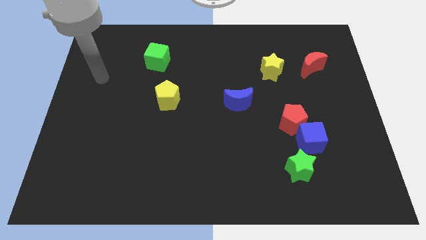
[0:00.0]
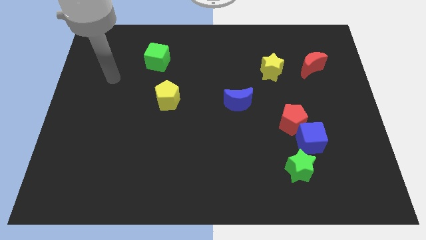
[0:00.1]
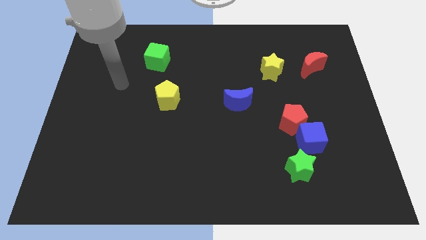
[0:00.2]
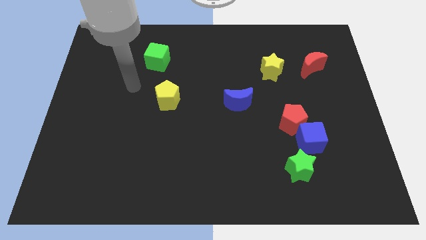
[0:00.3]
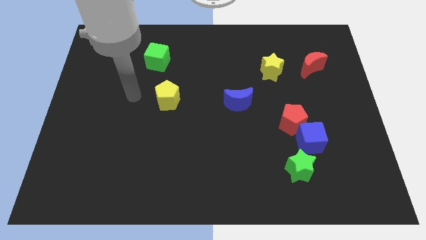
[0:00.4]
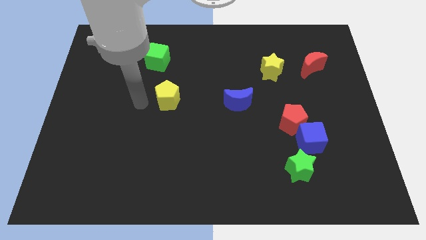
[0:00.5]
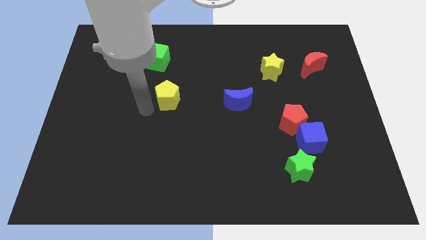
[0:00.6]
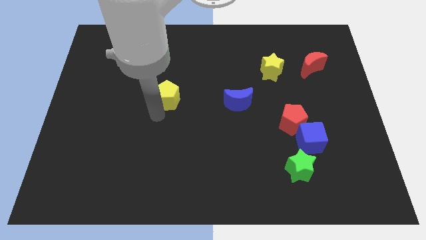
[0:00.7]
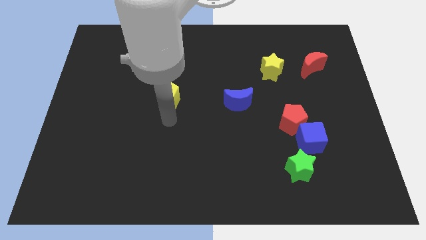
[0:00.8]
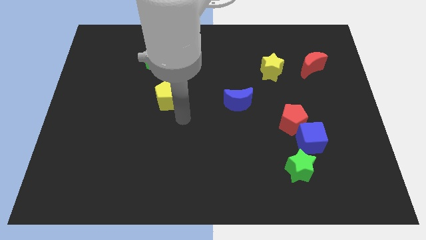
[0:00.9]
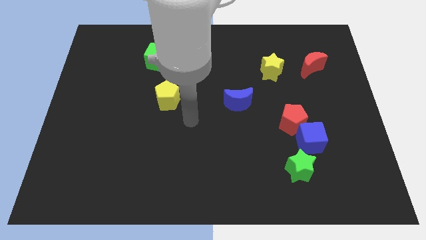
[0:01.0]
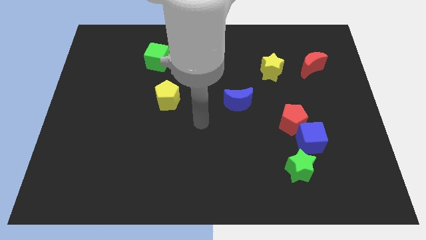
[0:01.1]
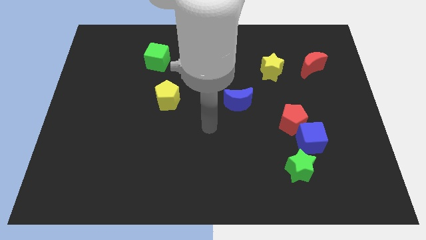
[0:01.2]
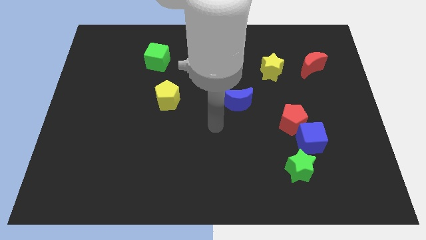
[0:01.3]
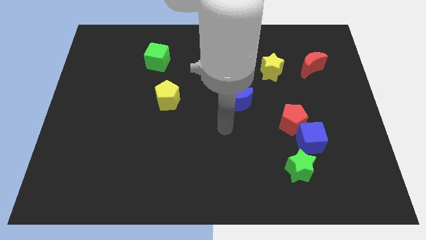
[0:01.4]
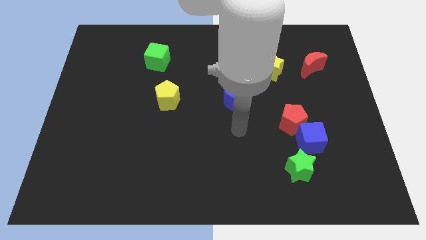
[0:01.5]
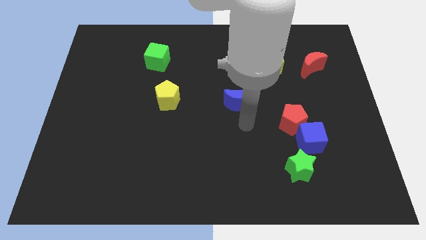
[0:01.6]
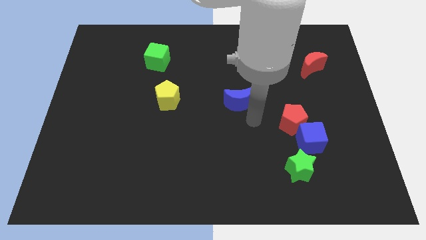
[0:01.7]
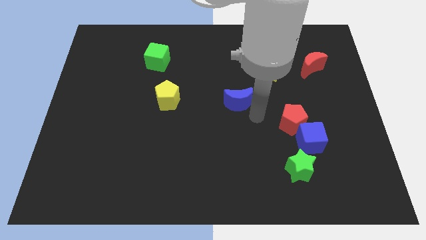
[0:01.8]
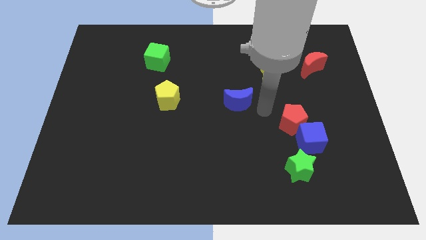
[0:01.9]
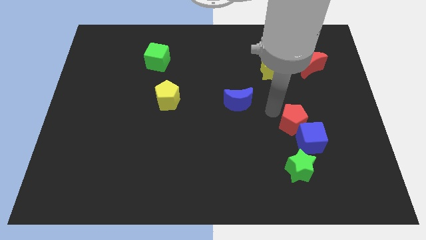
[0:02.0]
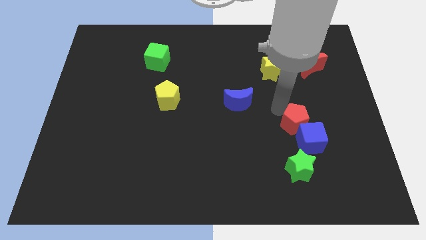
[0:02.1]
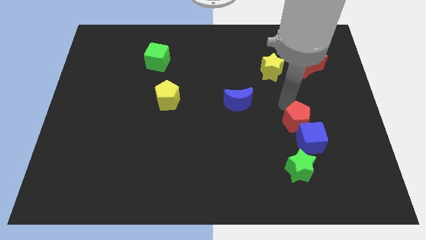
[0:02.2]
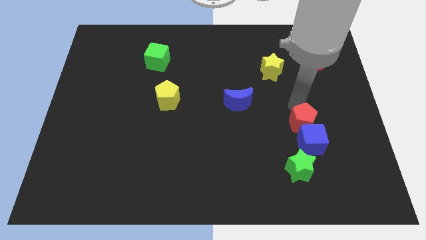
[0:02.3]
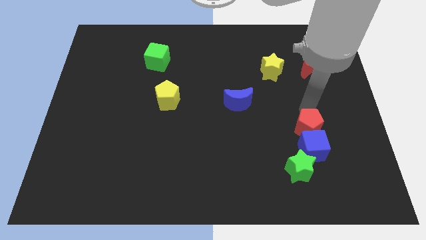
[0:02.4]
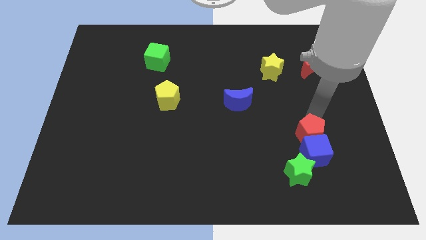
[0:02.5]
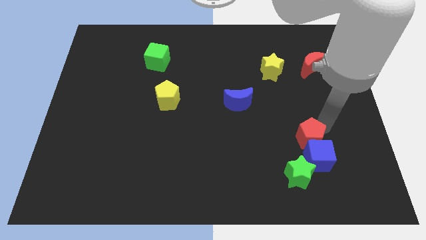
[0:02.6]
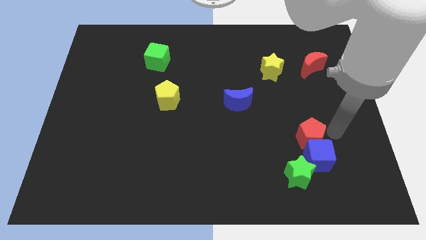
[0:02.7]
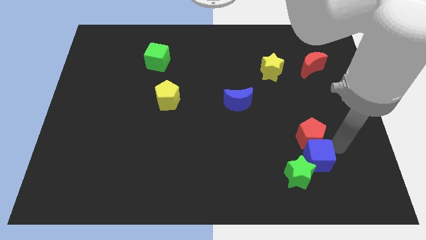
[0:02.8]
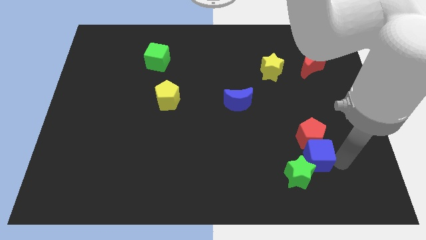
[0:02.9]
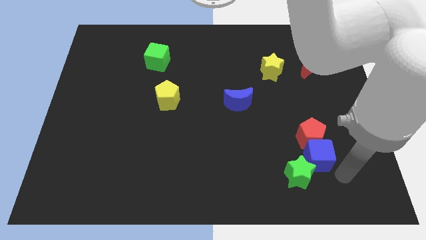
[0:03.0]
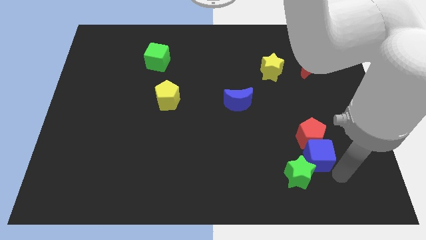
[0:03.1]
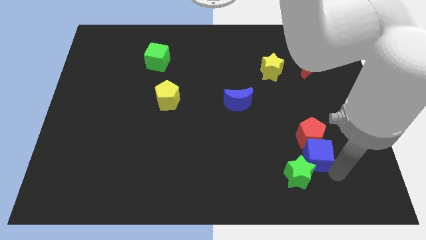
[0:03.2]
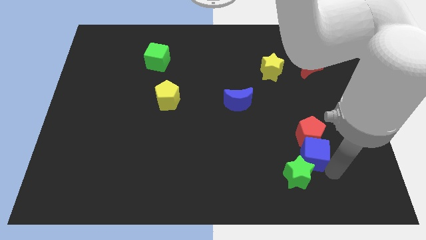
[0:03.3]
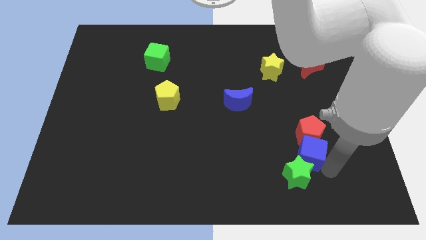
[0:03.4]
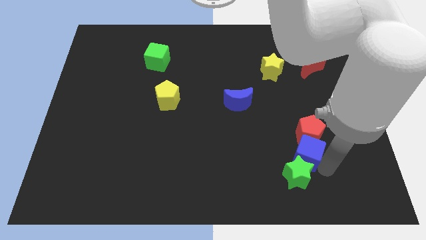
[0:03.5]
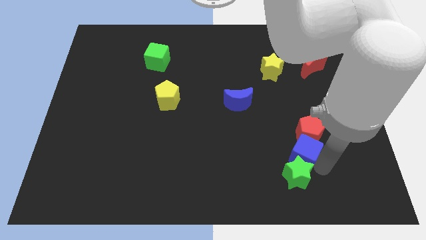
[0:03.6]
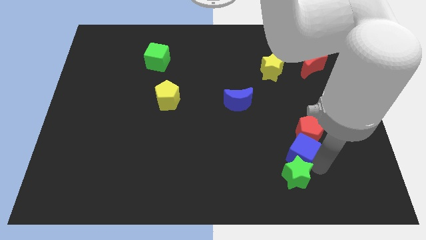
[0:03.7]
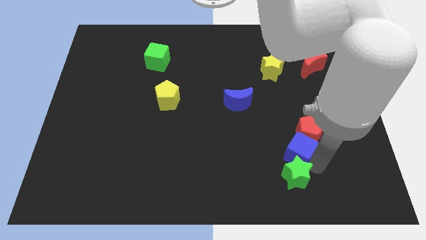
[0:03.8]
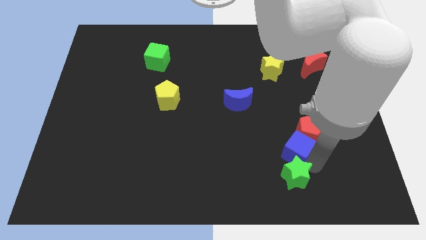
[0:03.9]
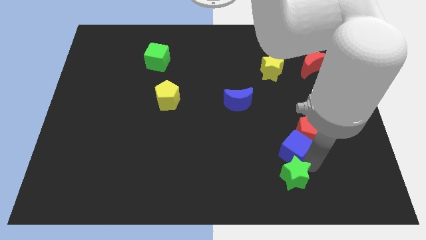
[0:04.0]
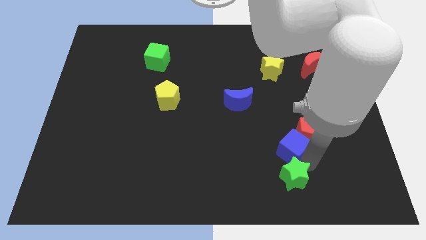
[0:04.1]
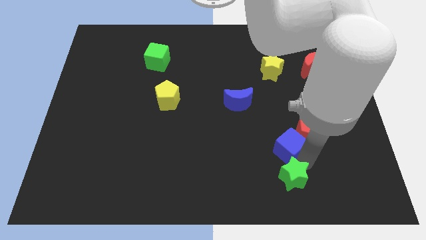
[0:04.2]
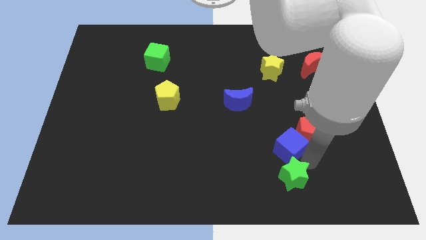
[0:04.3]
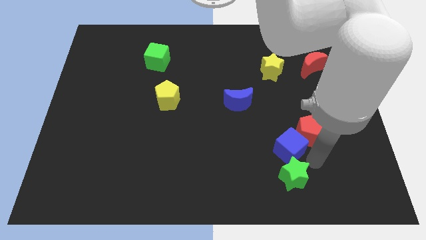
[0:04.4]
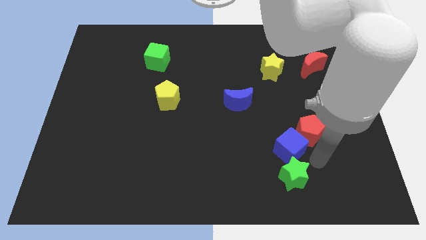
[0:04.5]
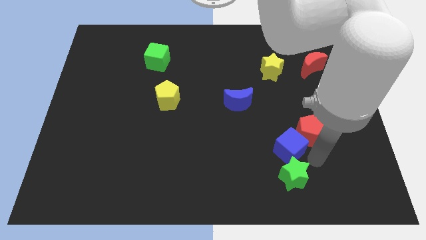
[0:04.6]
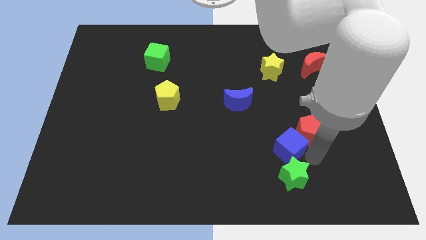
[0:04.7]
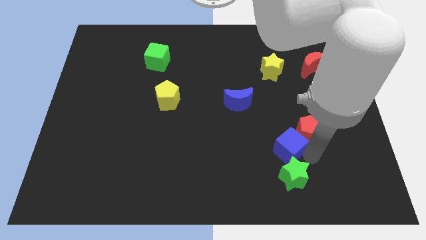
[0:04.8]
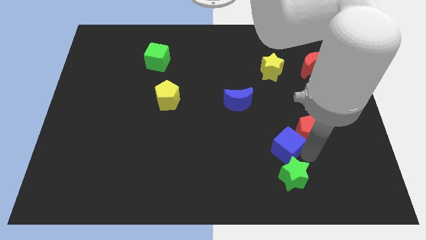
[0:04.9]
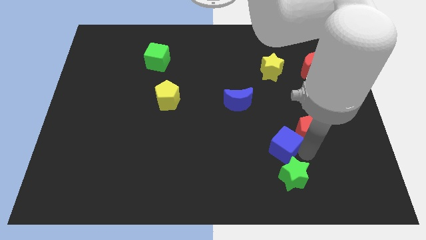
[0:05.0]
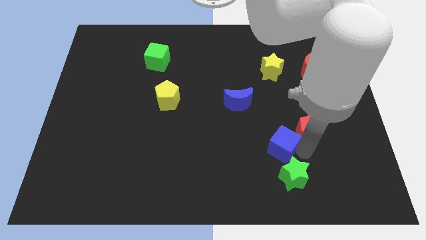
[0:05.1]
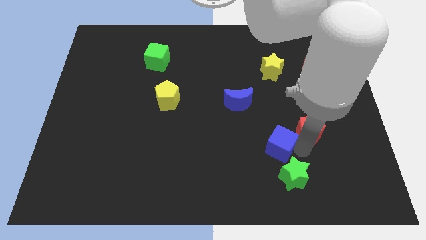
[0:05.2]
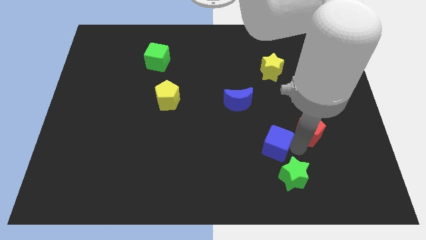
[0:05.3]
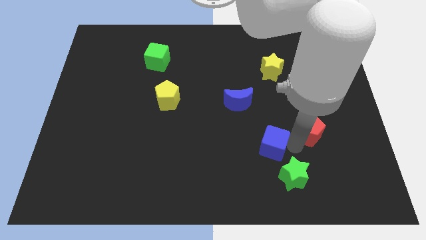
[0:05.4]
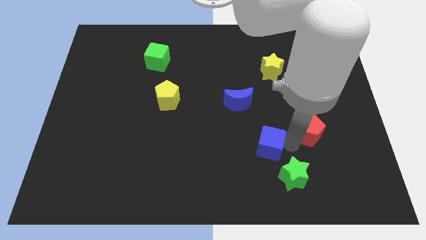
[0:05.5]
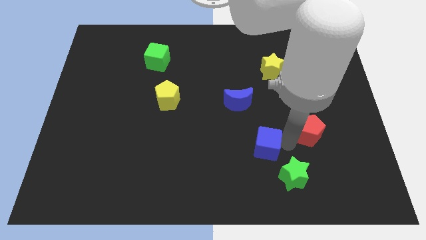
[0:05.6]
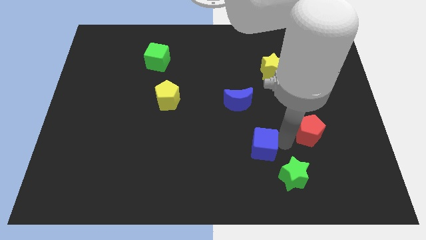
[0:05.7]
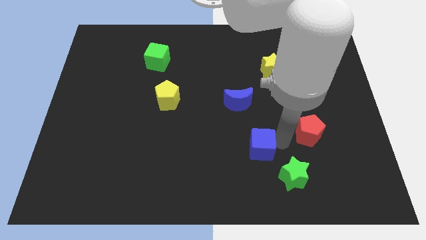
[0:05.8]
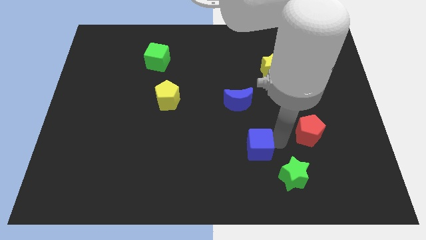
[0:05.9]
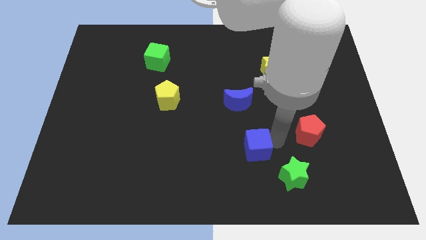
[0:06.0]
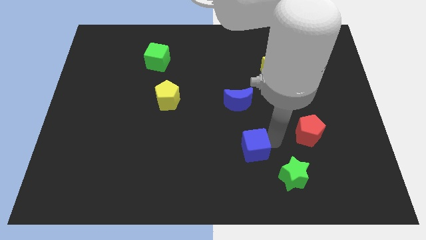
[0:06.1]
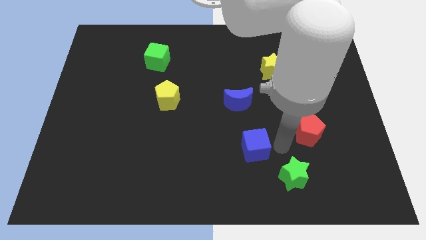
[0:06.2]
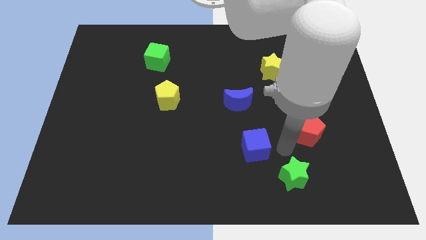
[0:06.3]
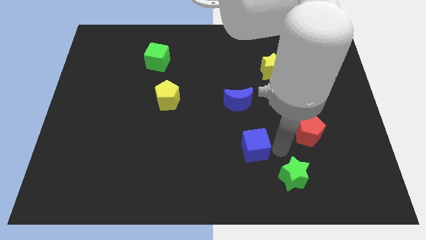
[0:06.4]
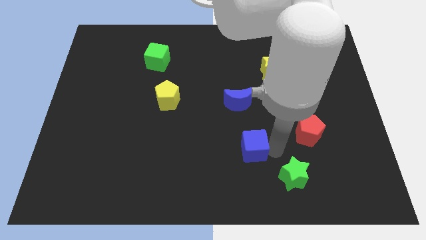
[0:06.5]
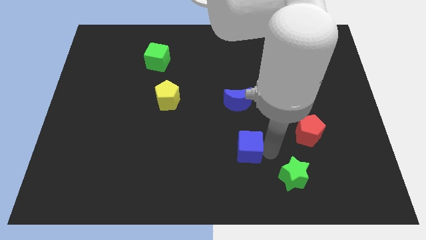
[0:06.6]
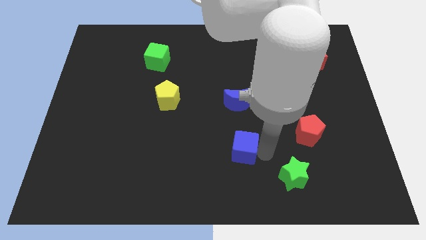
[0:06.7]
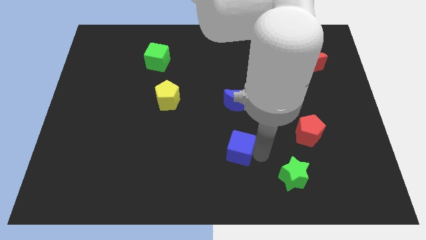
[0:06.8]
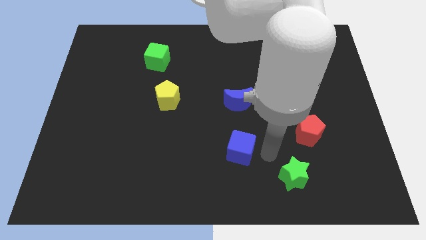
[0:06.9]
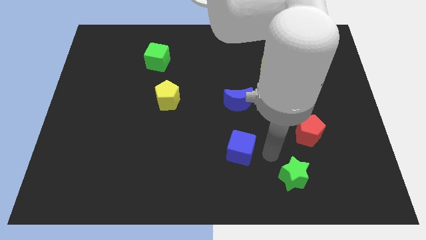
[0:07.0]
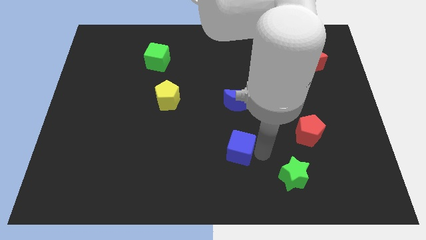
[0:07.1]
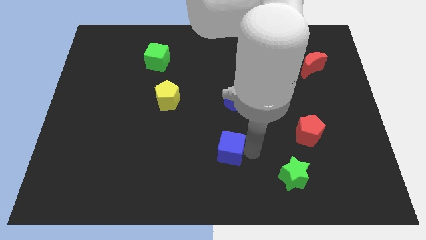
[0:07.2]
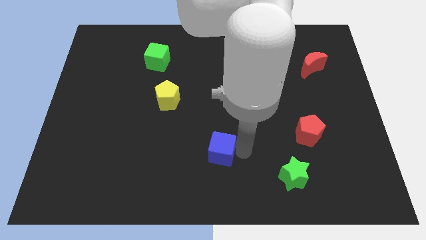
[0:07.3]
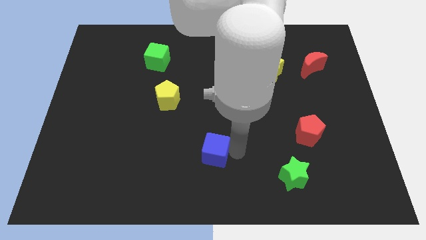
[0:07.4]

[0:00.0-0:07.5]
move the blue cube to the left

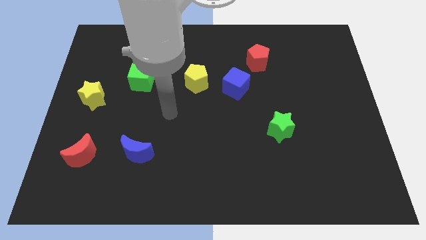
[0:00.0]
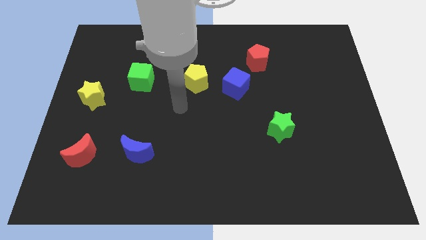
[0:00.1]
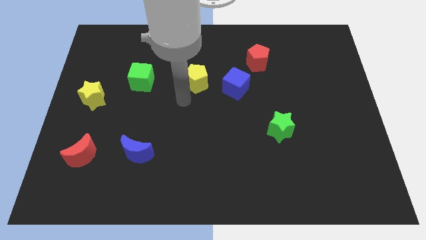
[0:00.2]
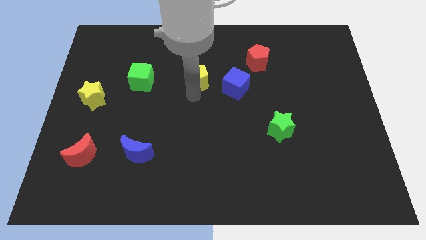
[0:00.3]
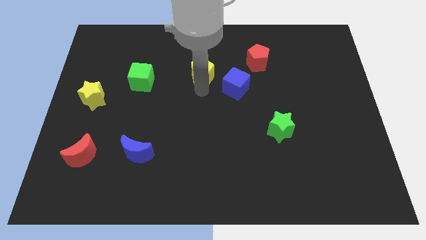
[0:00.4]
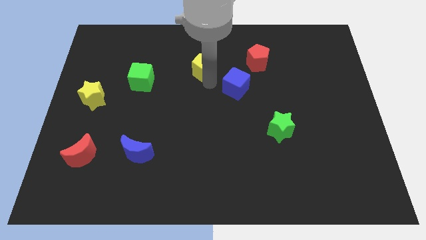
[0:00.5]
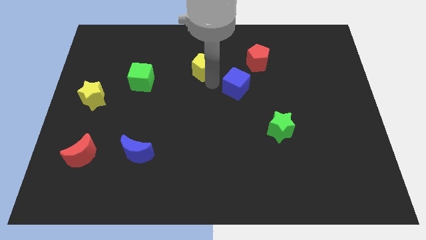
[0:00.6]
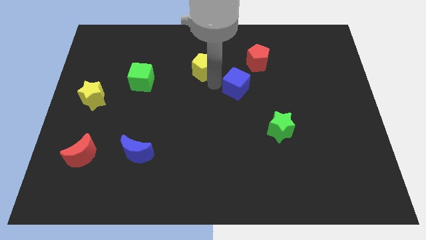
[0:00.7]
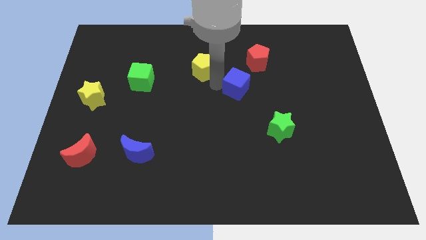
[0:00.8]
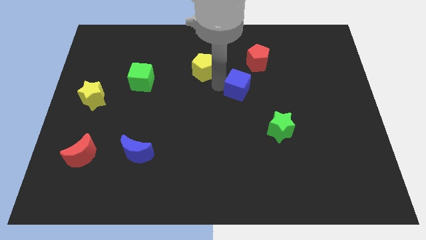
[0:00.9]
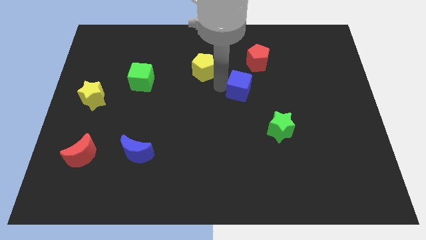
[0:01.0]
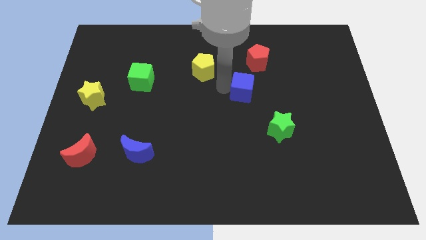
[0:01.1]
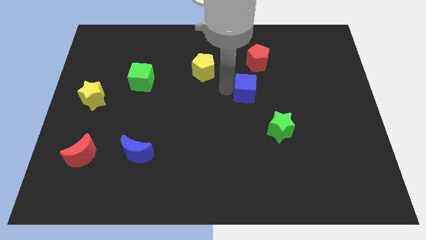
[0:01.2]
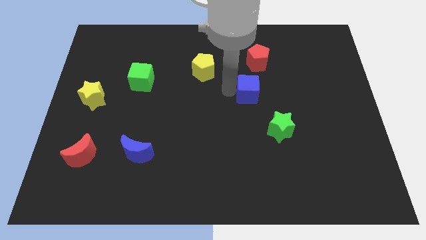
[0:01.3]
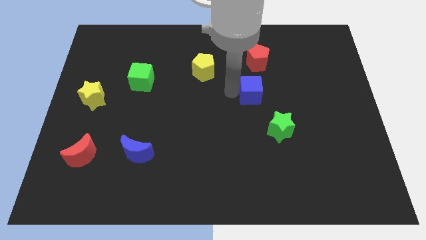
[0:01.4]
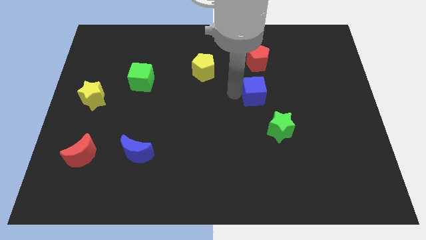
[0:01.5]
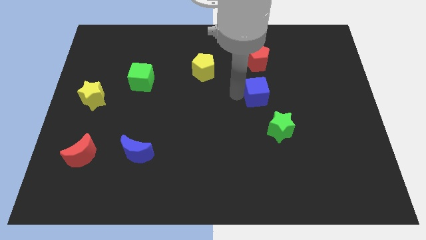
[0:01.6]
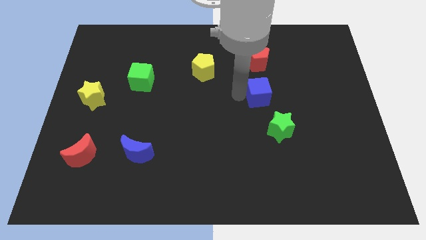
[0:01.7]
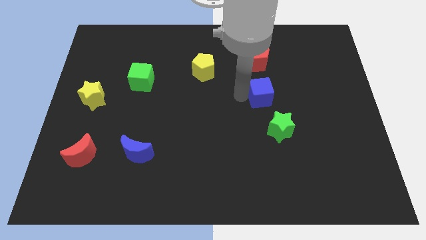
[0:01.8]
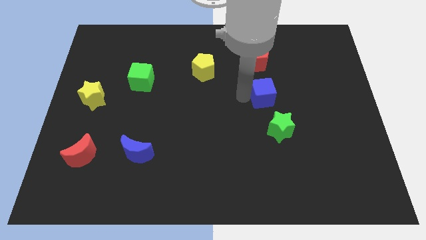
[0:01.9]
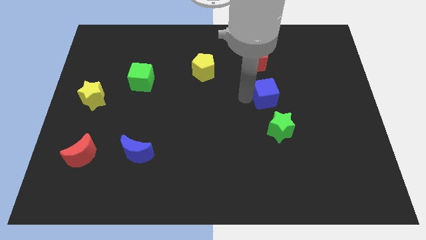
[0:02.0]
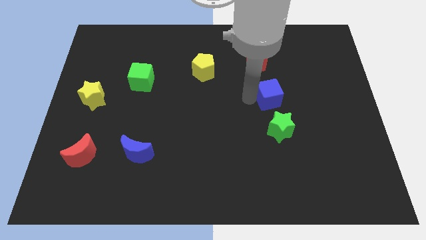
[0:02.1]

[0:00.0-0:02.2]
push the blue cube right a little
